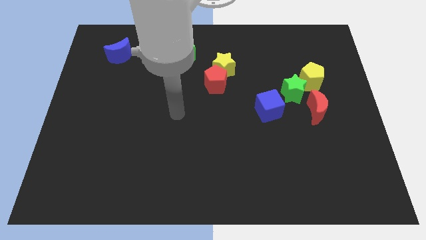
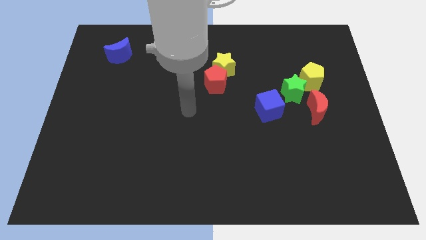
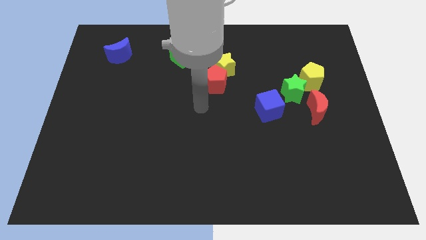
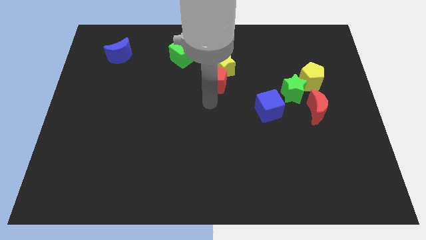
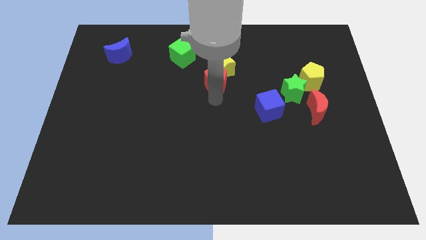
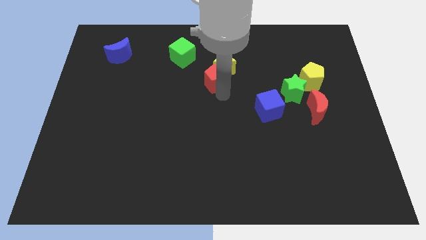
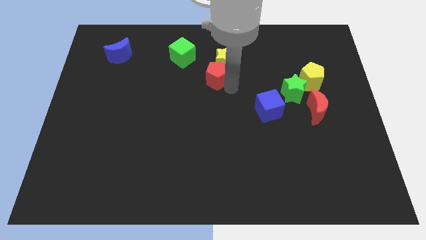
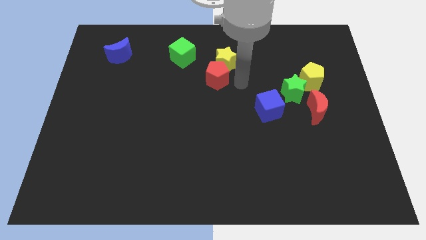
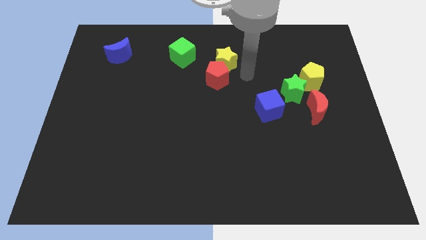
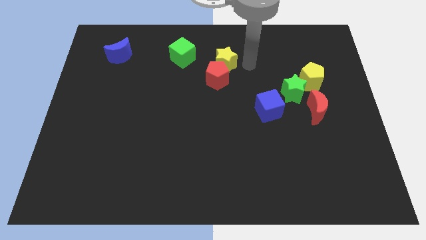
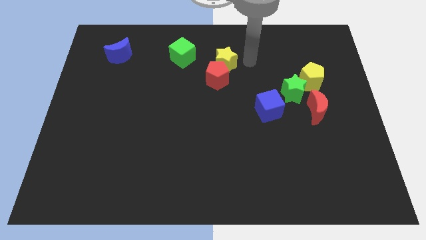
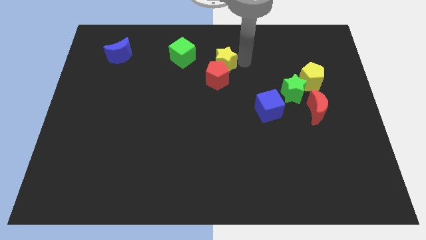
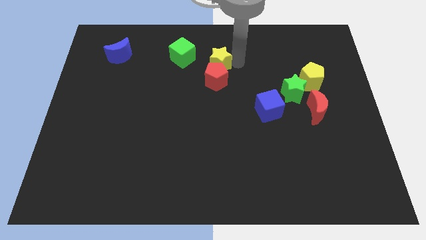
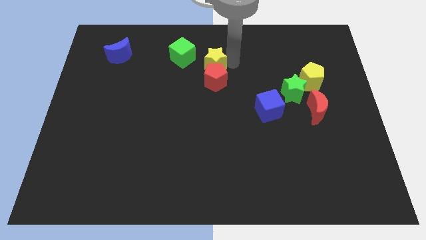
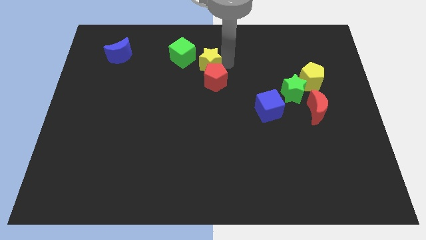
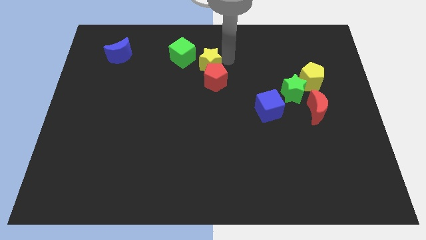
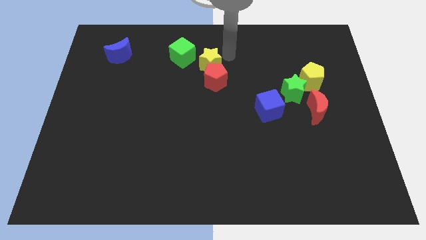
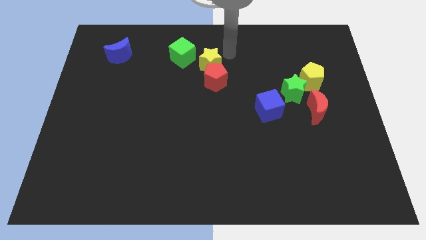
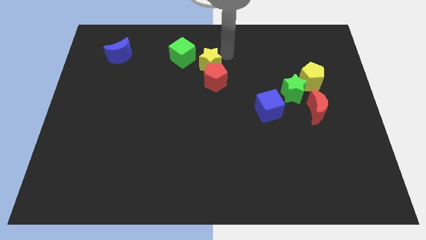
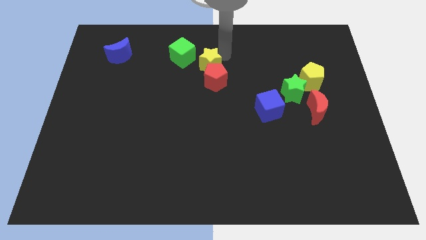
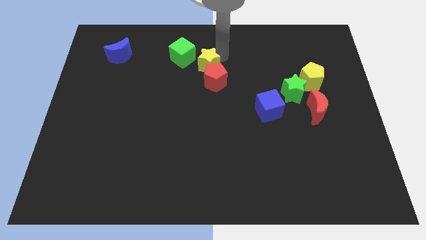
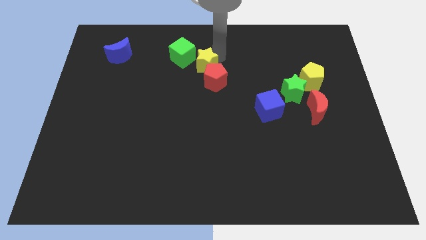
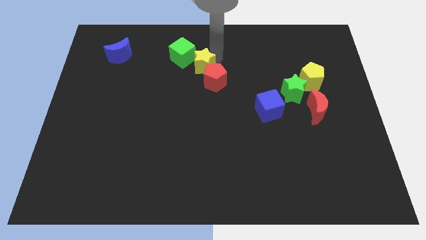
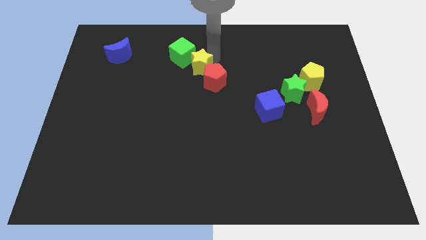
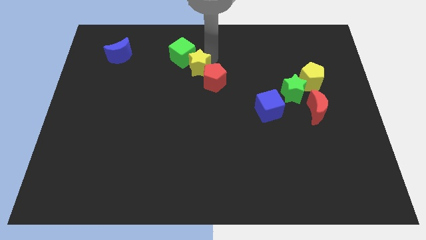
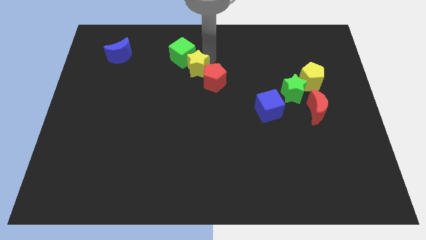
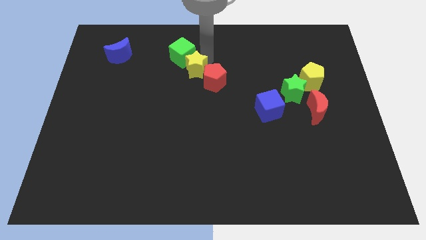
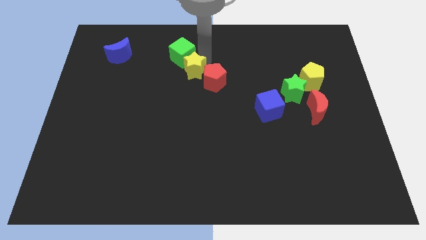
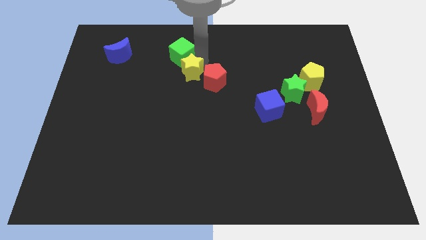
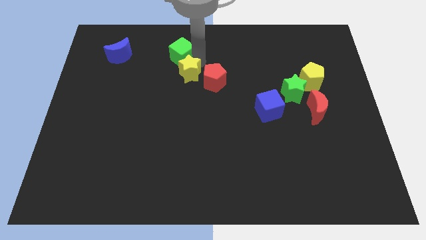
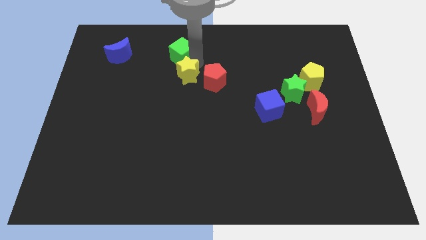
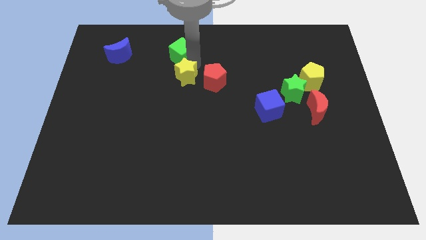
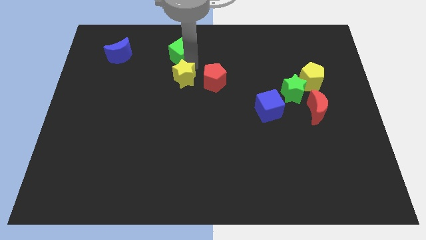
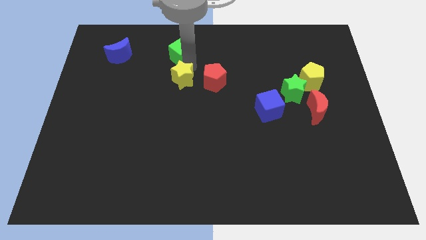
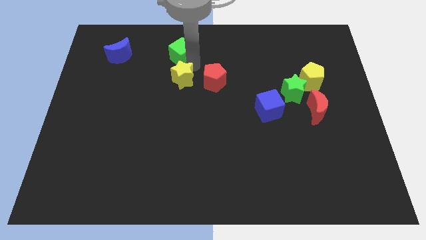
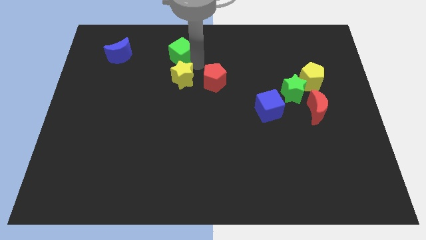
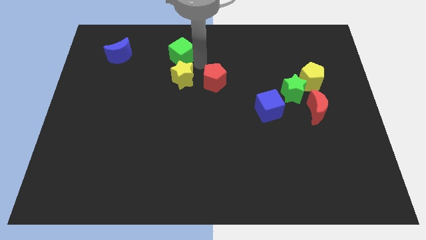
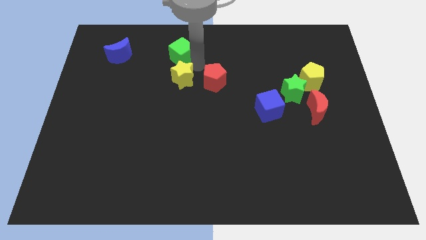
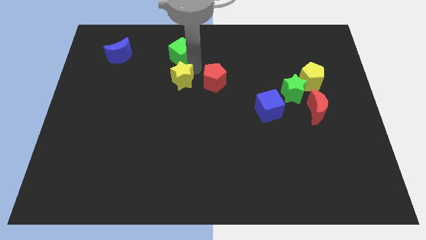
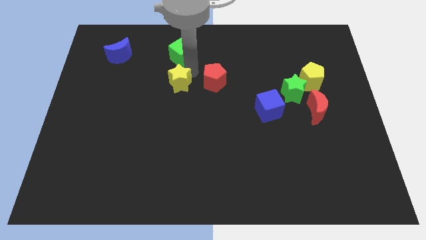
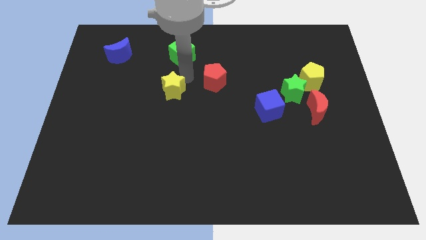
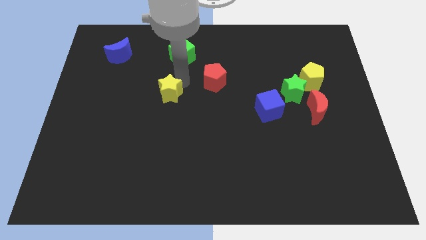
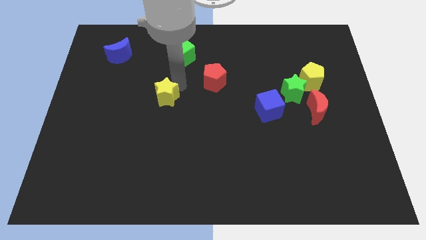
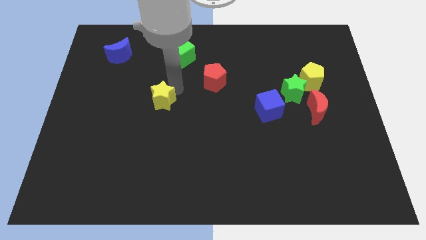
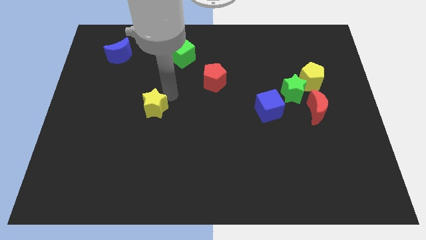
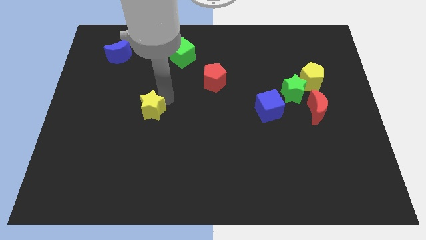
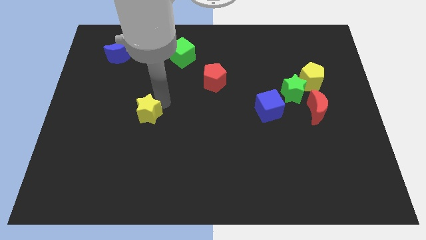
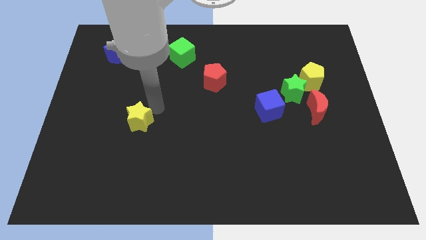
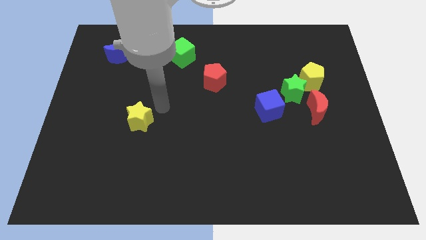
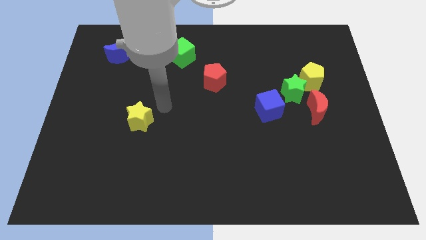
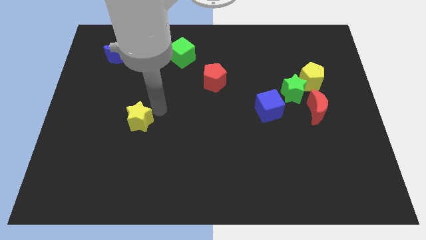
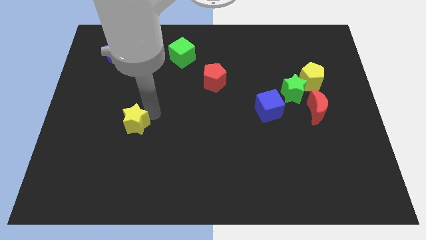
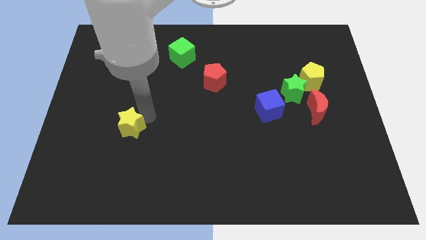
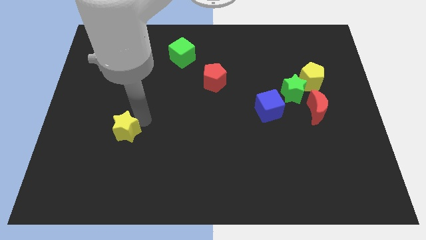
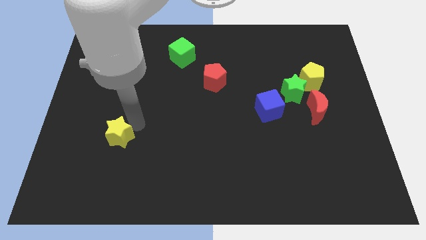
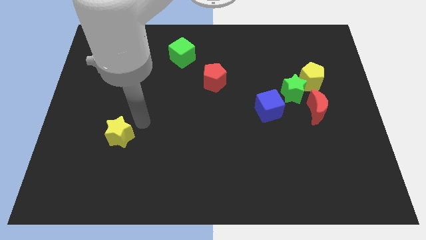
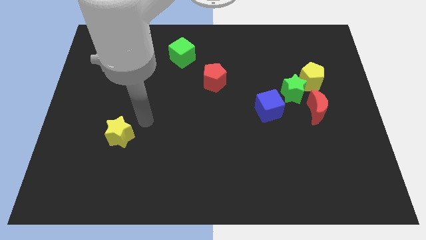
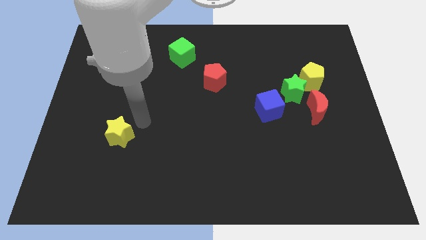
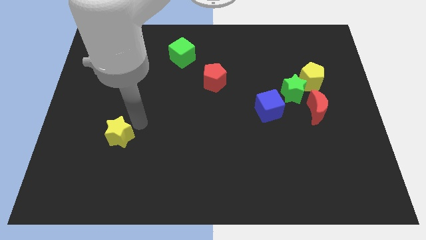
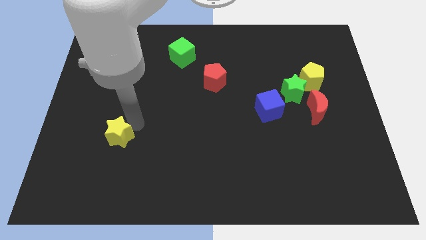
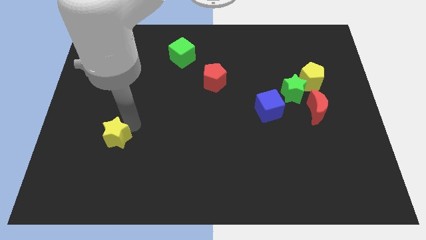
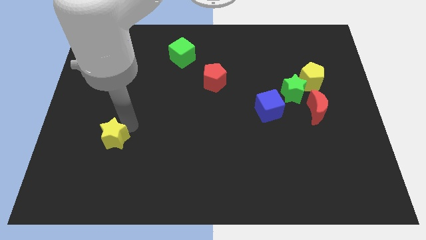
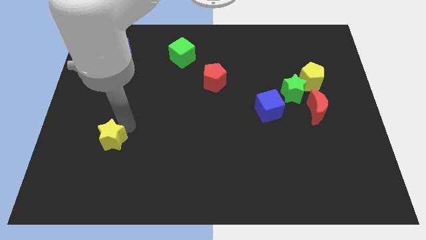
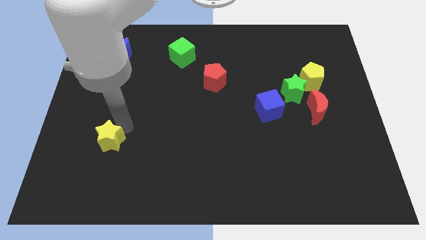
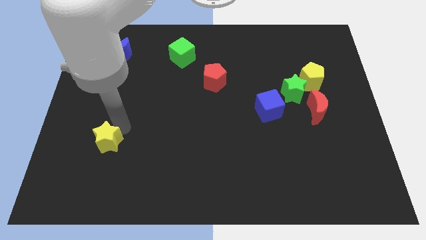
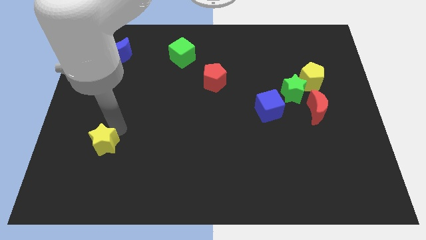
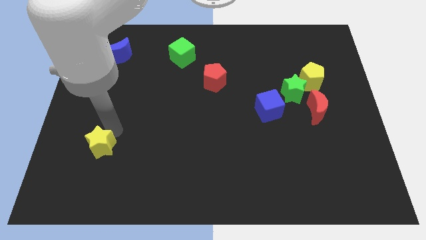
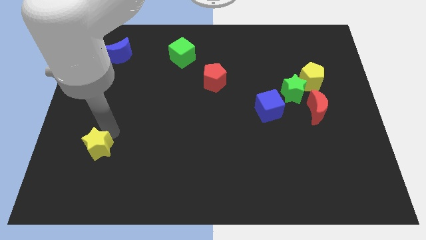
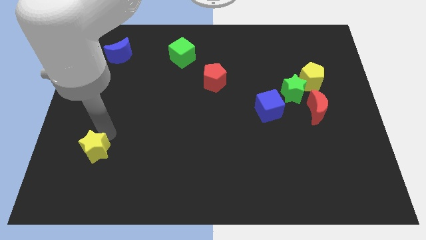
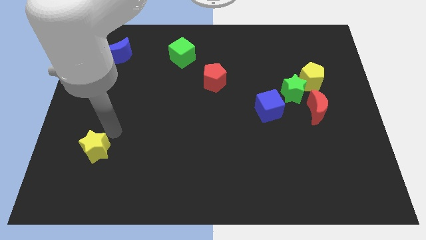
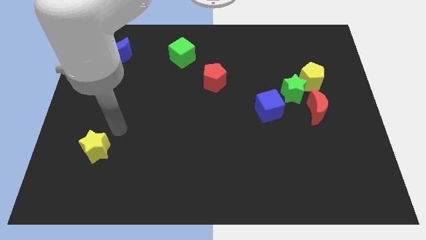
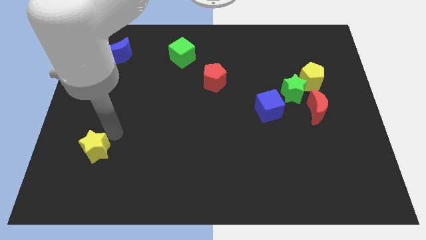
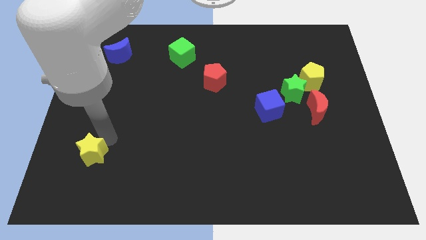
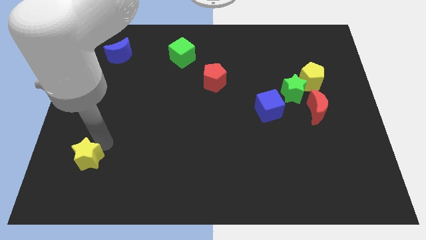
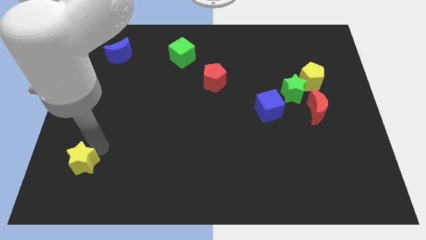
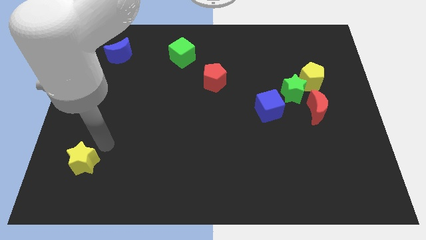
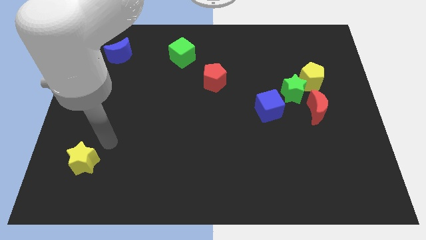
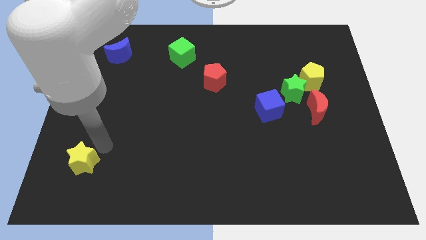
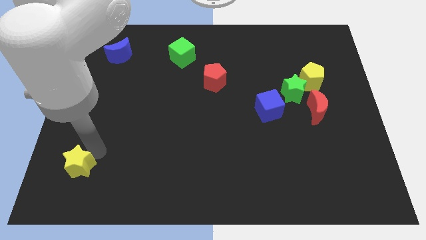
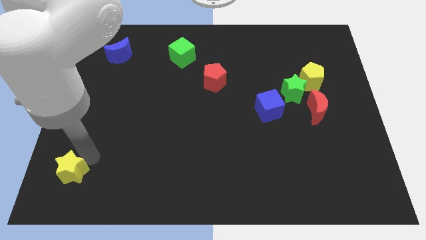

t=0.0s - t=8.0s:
slide the yellow star to the bottom left
